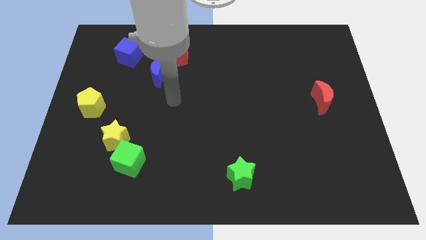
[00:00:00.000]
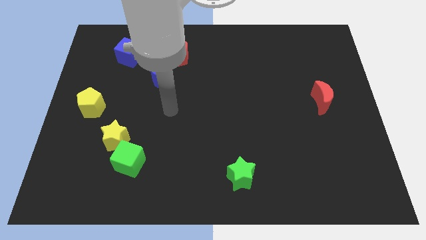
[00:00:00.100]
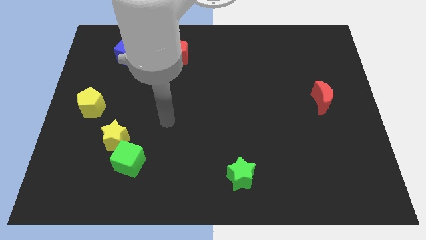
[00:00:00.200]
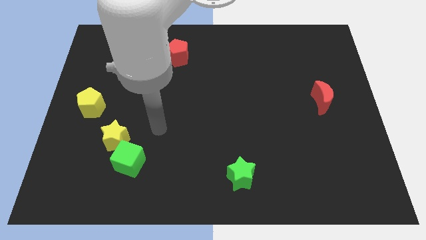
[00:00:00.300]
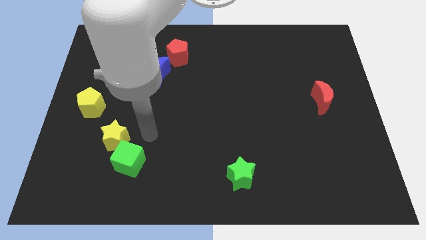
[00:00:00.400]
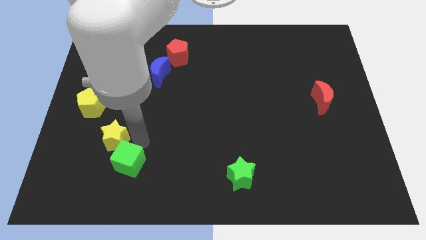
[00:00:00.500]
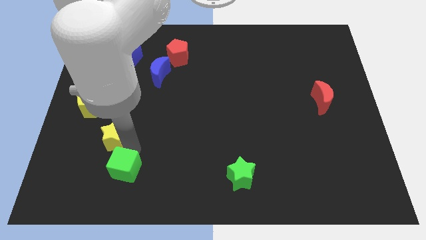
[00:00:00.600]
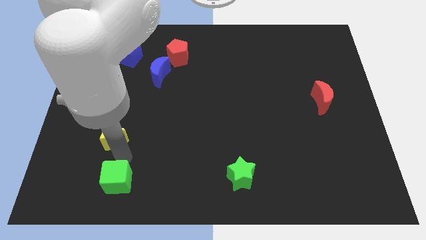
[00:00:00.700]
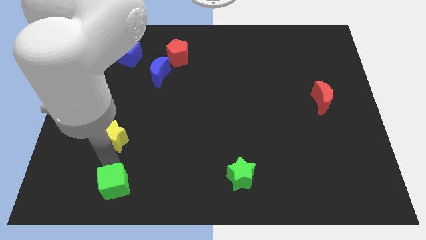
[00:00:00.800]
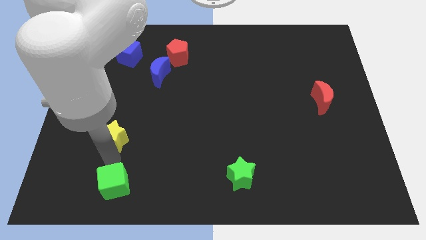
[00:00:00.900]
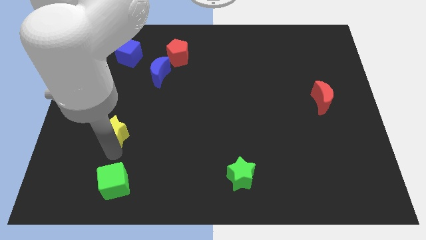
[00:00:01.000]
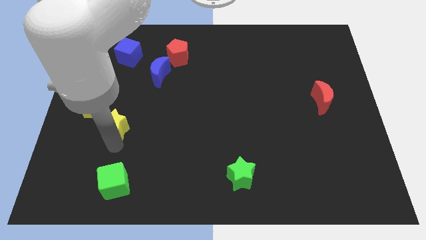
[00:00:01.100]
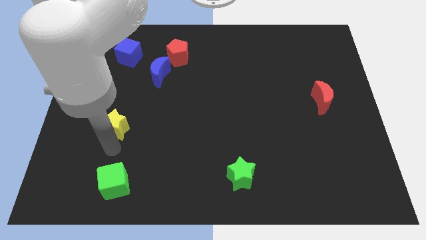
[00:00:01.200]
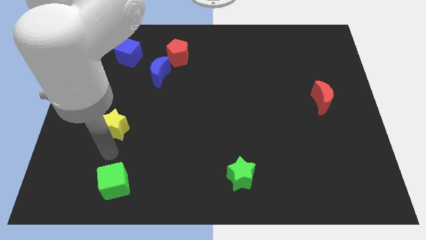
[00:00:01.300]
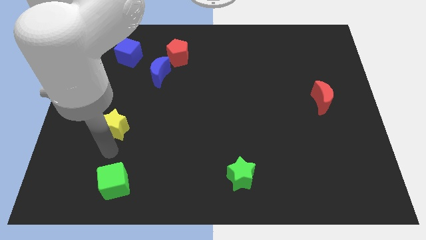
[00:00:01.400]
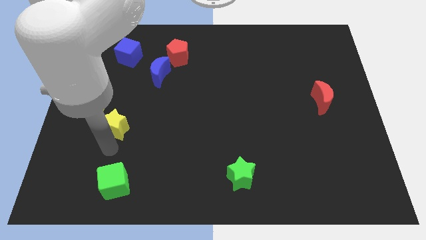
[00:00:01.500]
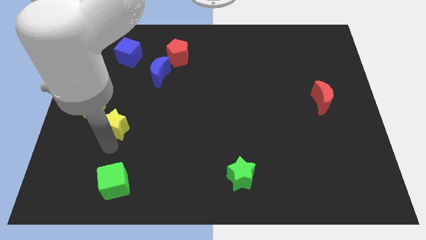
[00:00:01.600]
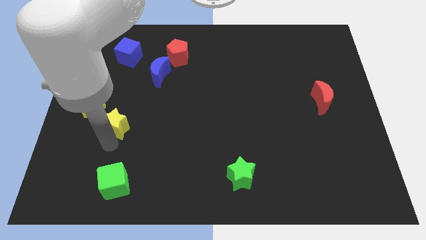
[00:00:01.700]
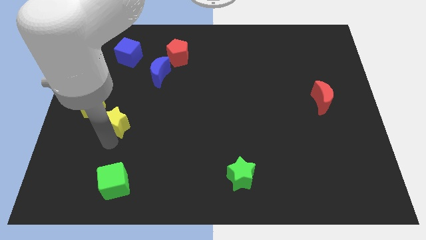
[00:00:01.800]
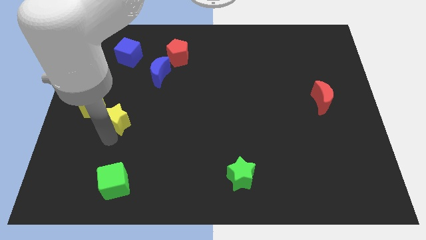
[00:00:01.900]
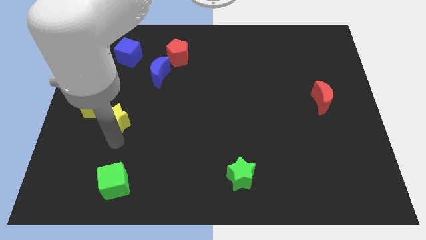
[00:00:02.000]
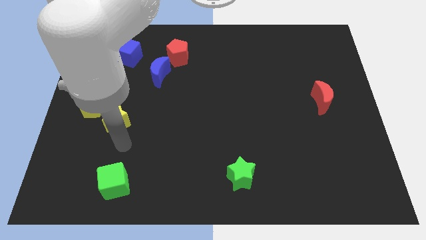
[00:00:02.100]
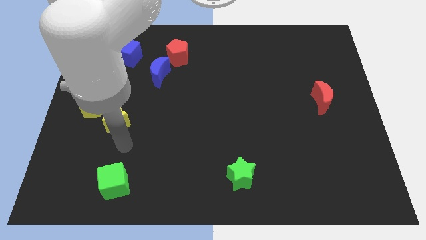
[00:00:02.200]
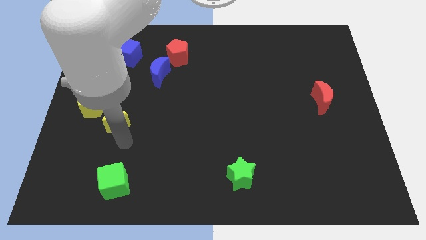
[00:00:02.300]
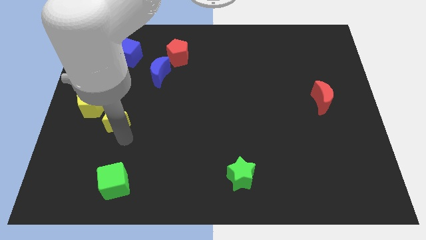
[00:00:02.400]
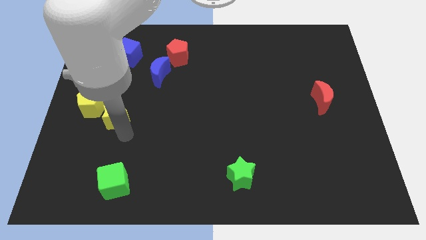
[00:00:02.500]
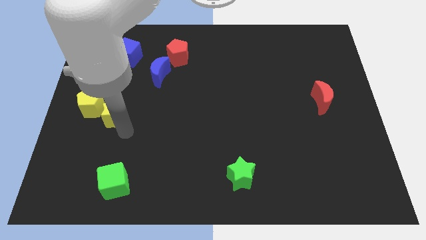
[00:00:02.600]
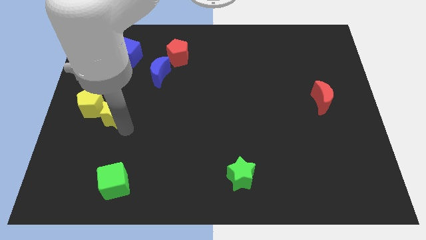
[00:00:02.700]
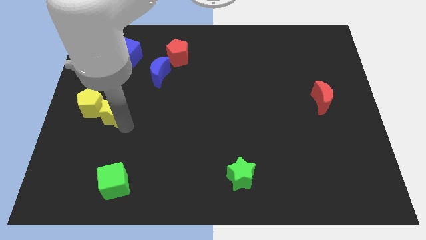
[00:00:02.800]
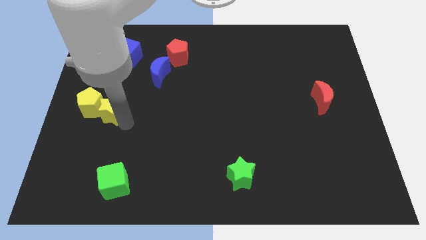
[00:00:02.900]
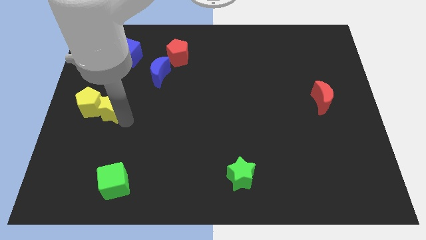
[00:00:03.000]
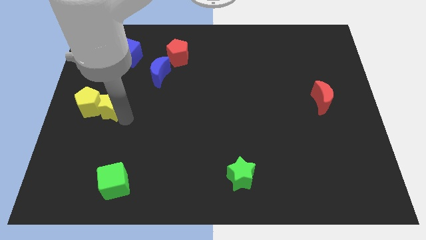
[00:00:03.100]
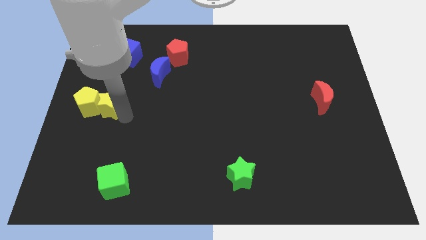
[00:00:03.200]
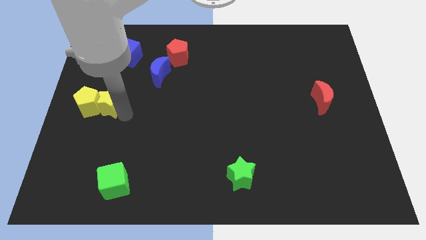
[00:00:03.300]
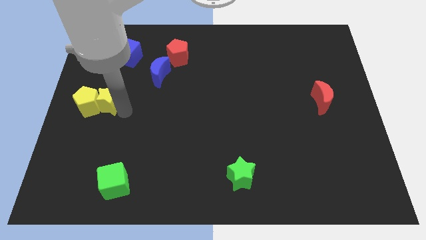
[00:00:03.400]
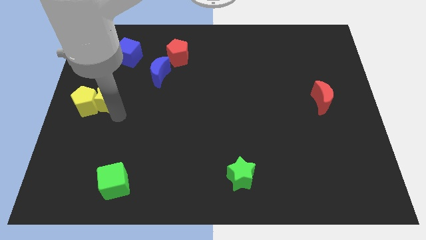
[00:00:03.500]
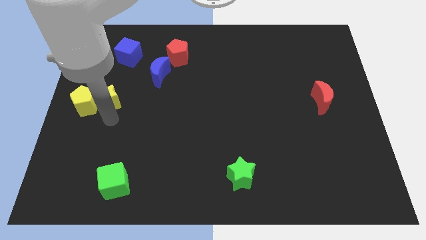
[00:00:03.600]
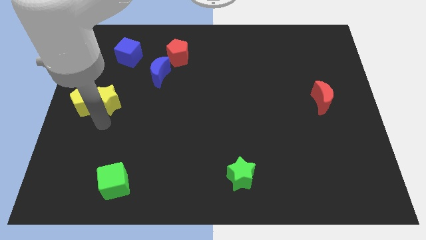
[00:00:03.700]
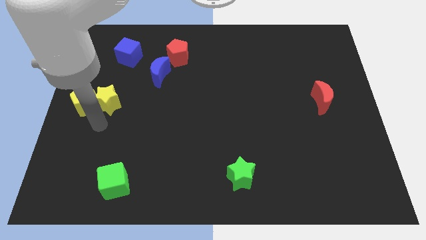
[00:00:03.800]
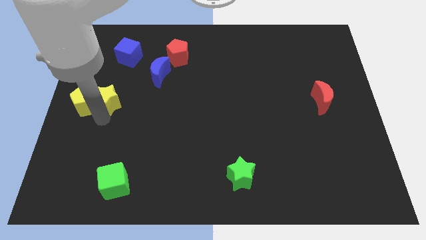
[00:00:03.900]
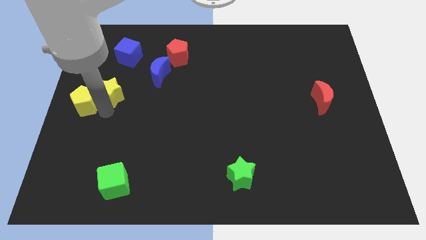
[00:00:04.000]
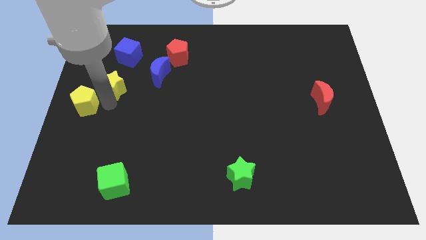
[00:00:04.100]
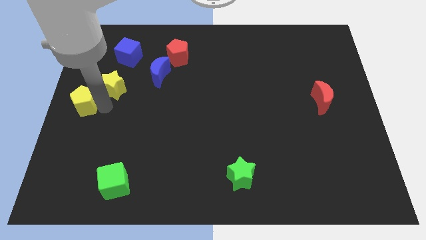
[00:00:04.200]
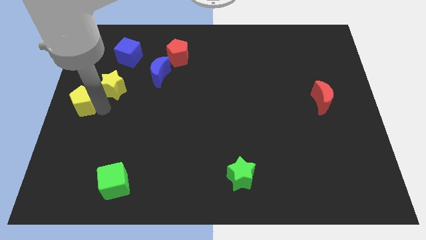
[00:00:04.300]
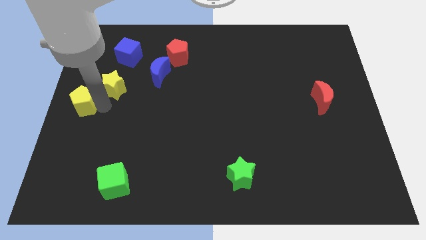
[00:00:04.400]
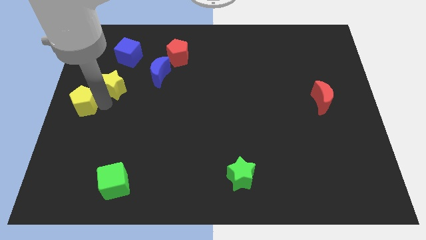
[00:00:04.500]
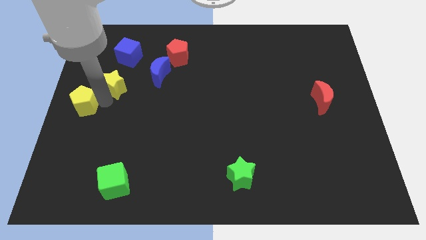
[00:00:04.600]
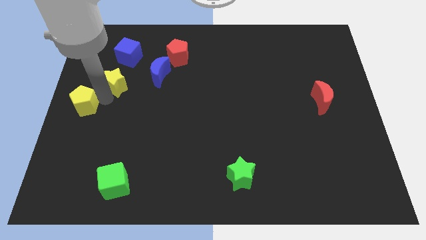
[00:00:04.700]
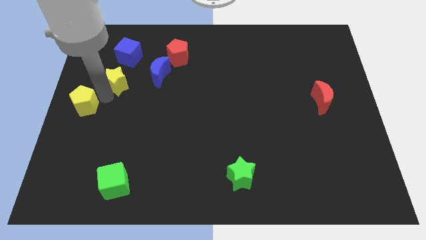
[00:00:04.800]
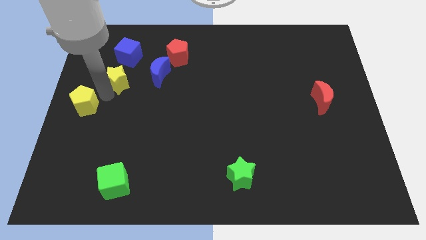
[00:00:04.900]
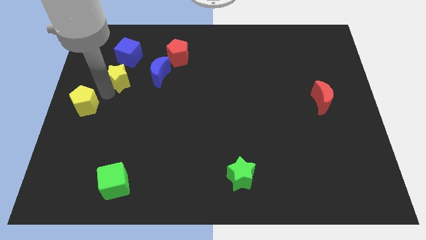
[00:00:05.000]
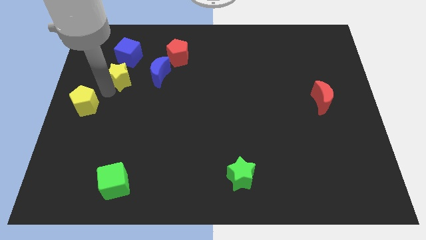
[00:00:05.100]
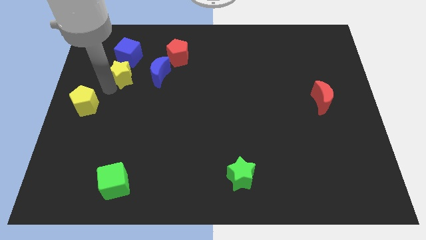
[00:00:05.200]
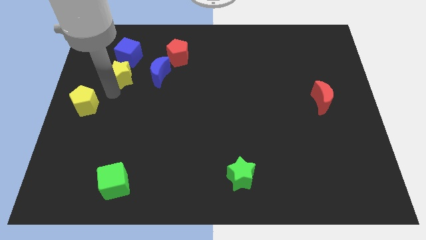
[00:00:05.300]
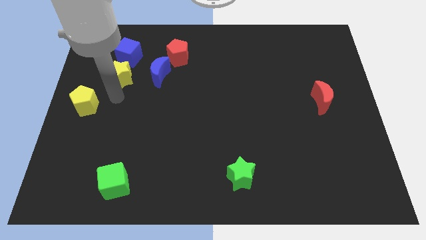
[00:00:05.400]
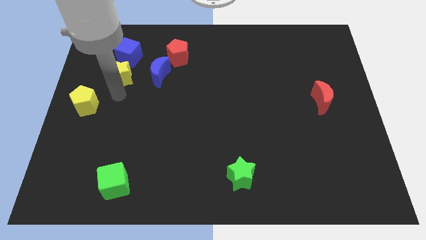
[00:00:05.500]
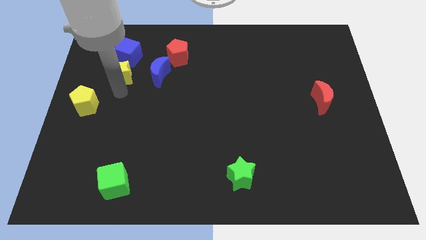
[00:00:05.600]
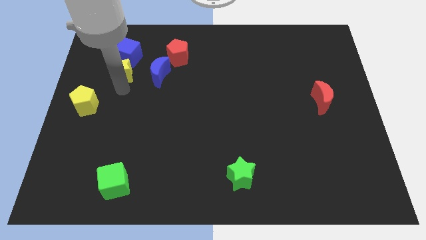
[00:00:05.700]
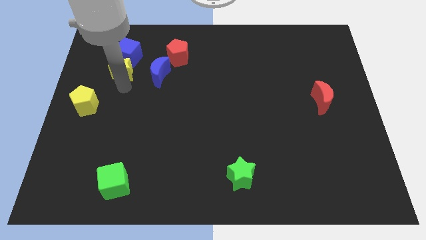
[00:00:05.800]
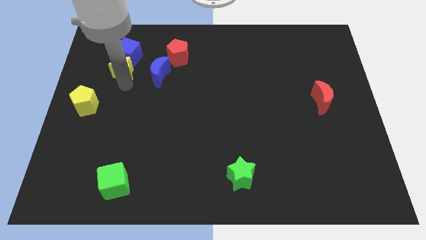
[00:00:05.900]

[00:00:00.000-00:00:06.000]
slide the yellow star to the blue cube
